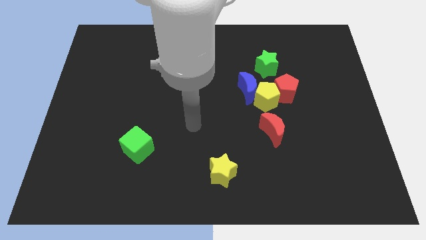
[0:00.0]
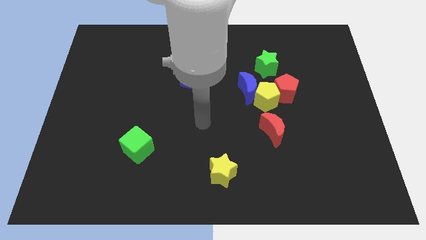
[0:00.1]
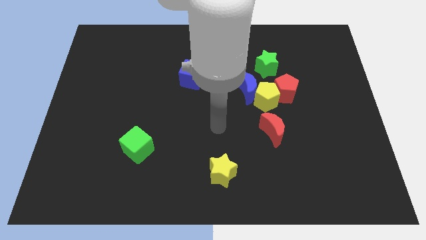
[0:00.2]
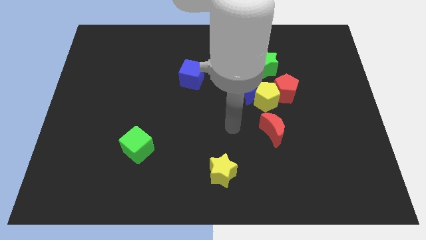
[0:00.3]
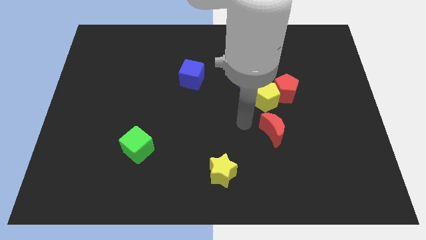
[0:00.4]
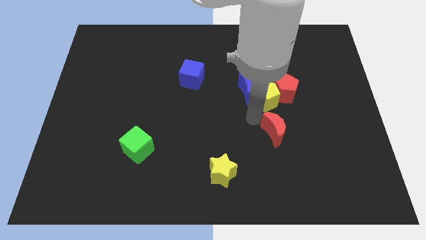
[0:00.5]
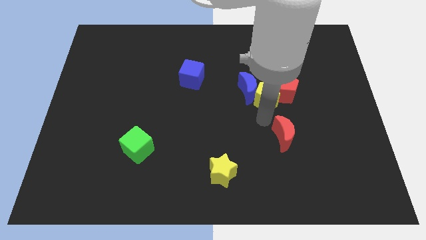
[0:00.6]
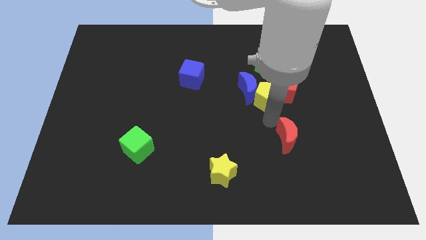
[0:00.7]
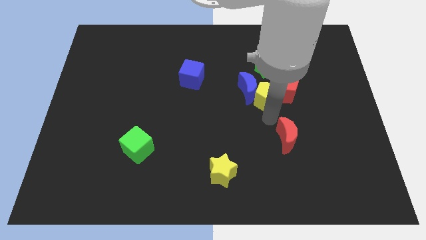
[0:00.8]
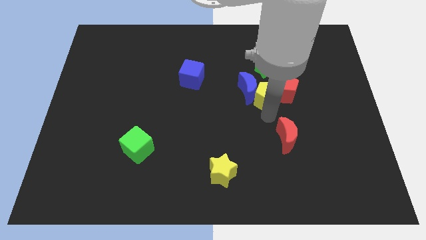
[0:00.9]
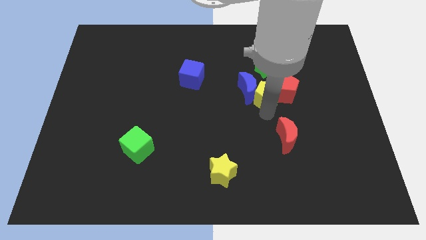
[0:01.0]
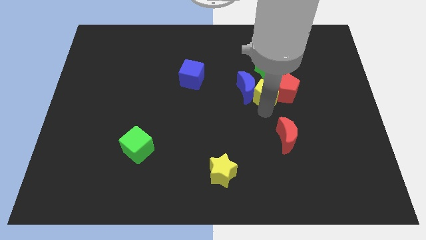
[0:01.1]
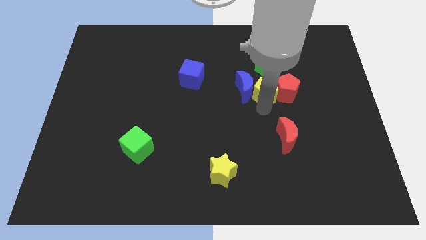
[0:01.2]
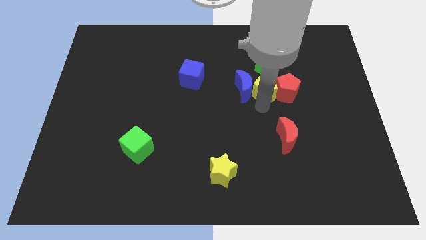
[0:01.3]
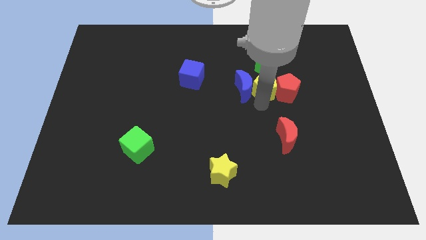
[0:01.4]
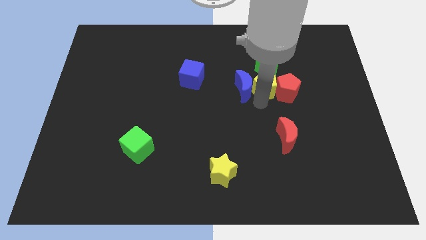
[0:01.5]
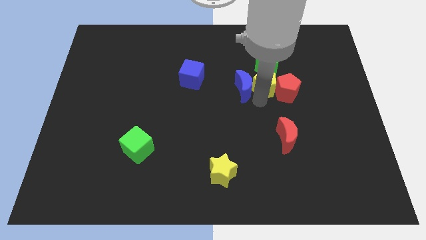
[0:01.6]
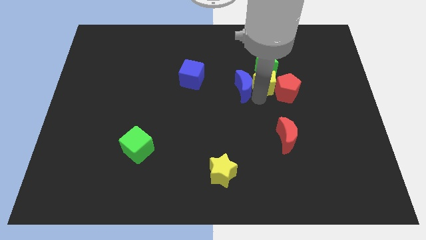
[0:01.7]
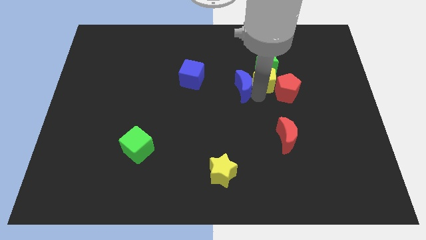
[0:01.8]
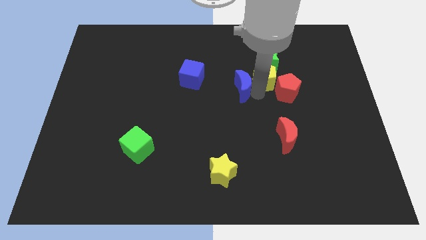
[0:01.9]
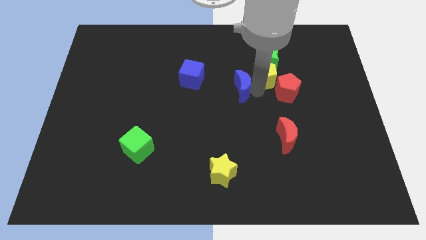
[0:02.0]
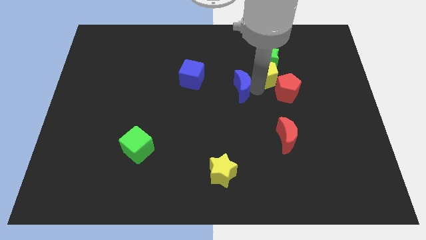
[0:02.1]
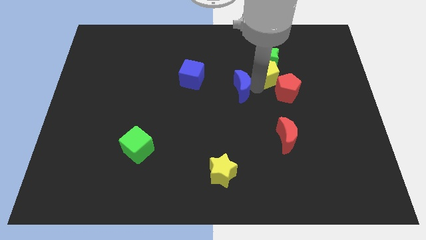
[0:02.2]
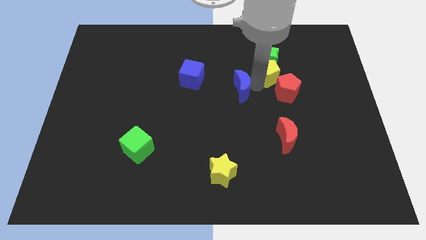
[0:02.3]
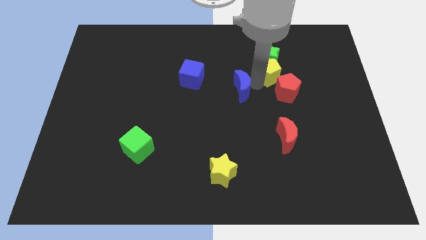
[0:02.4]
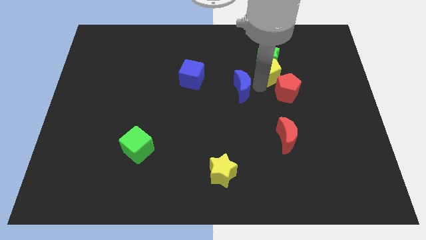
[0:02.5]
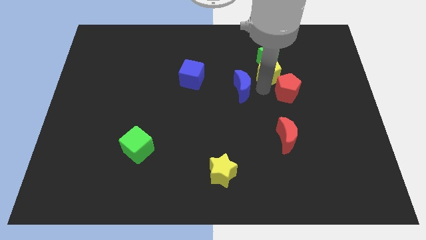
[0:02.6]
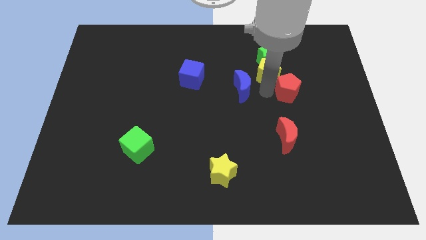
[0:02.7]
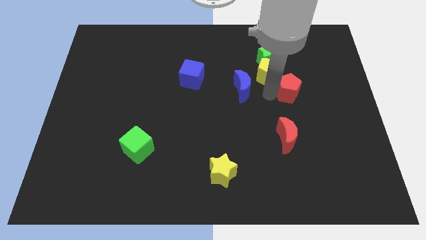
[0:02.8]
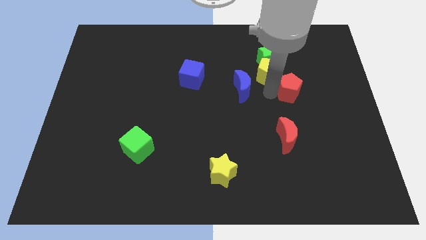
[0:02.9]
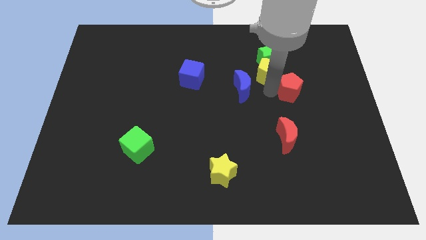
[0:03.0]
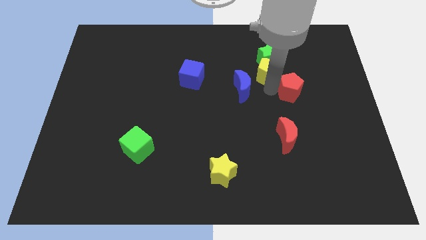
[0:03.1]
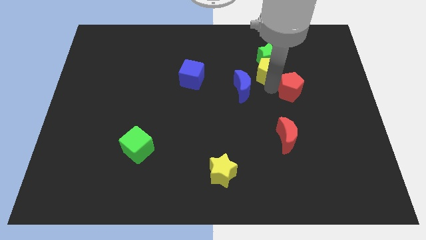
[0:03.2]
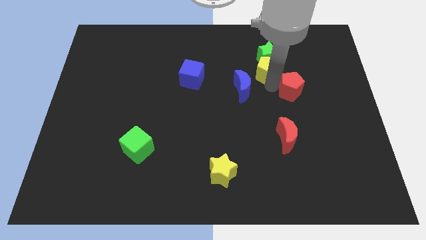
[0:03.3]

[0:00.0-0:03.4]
separate the yellow pentagon from the blue moon, red pentagon, and red moon

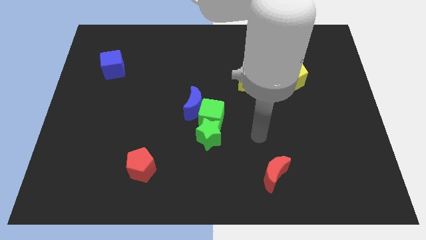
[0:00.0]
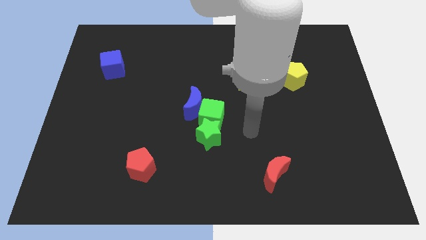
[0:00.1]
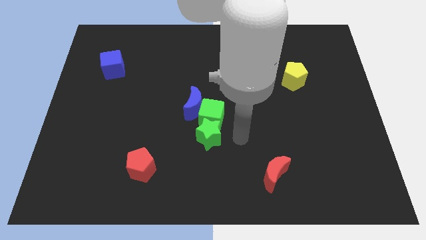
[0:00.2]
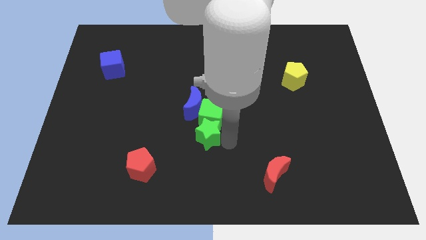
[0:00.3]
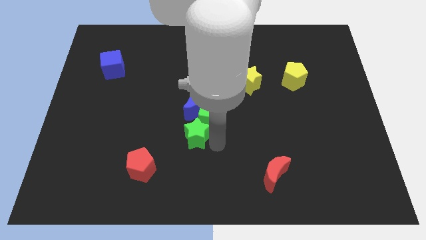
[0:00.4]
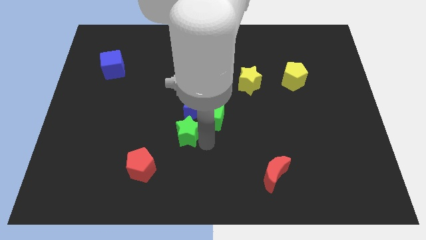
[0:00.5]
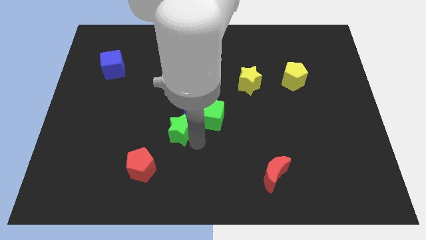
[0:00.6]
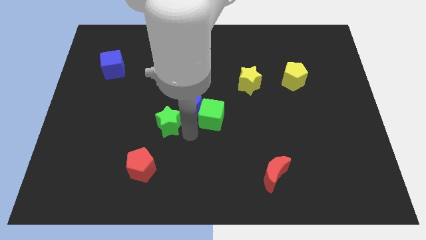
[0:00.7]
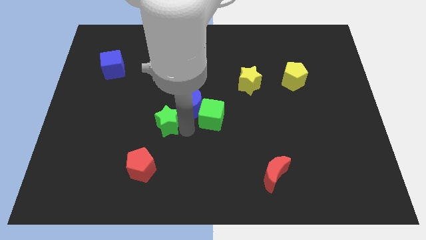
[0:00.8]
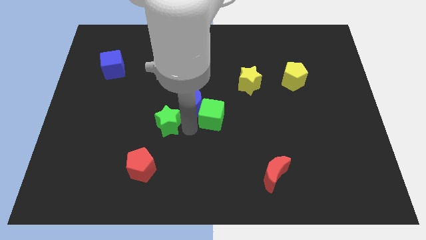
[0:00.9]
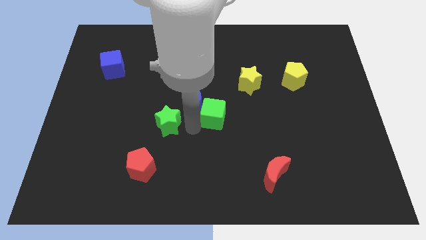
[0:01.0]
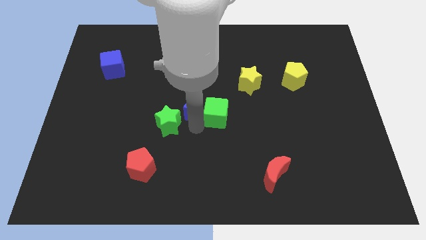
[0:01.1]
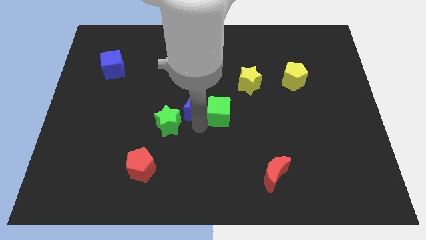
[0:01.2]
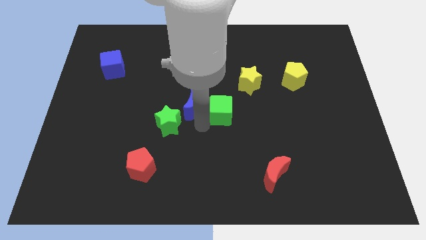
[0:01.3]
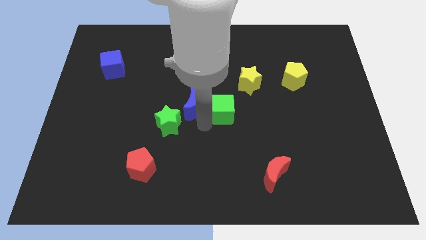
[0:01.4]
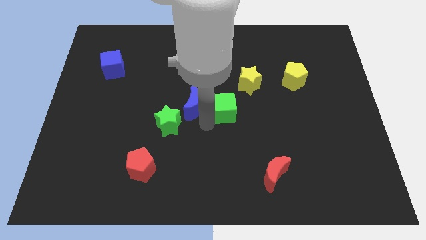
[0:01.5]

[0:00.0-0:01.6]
separate the green cube from the blue moon and green star

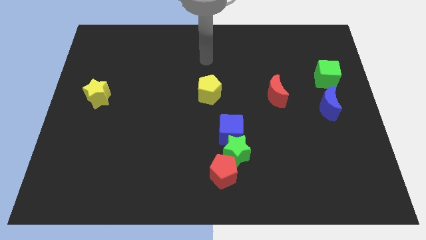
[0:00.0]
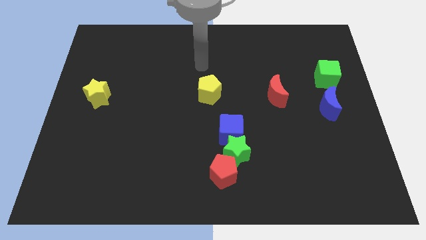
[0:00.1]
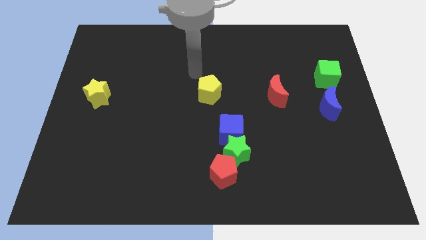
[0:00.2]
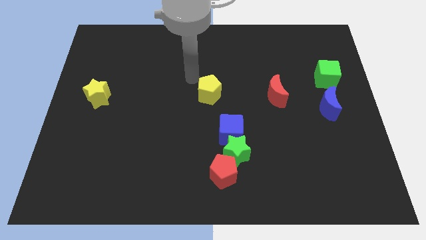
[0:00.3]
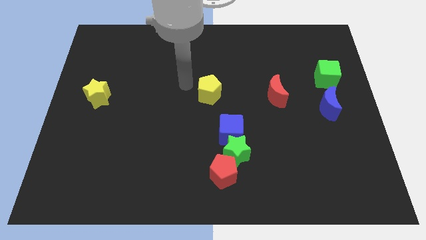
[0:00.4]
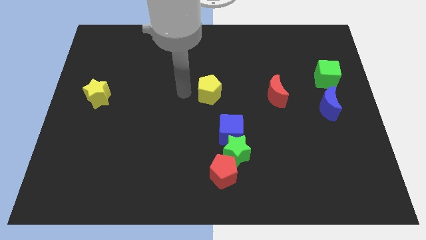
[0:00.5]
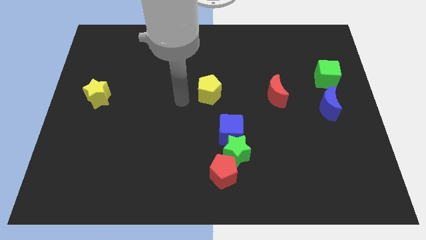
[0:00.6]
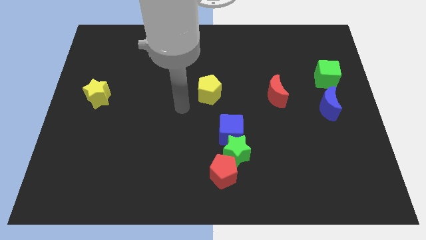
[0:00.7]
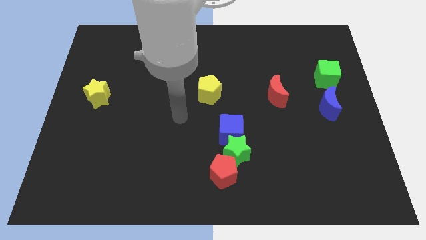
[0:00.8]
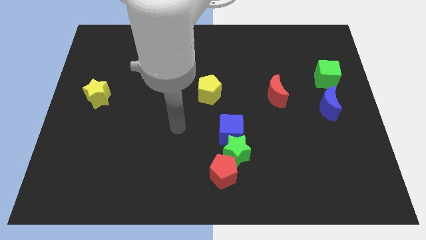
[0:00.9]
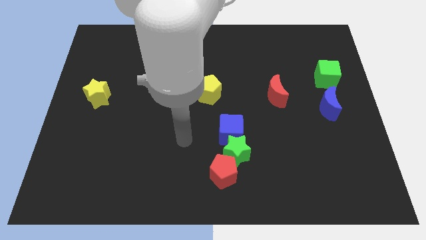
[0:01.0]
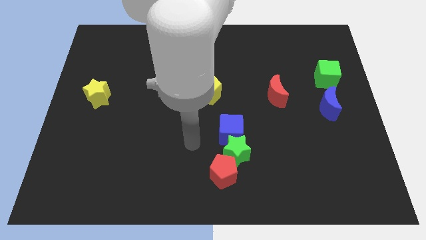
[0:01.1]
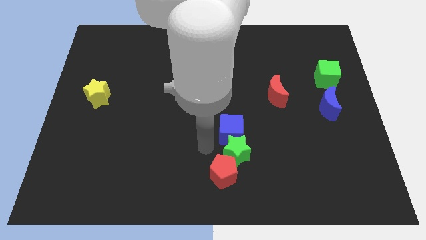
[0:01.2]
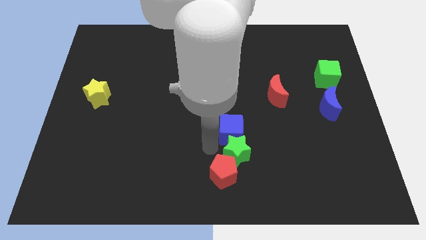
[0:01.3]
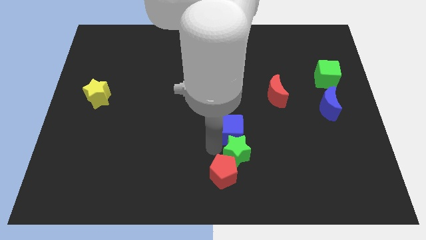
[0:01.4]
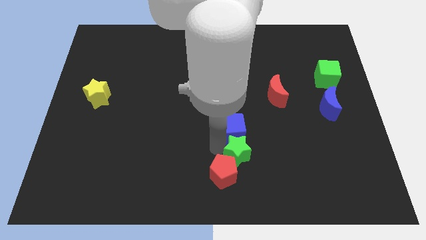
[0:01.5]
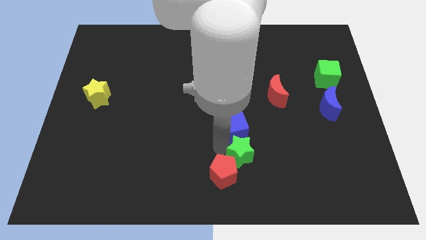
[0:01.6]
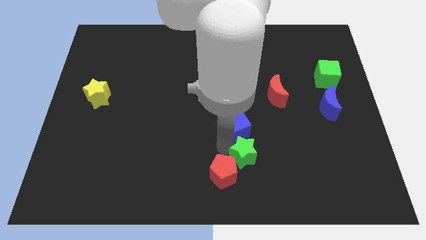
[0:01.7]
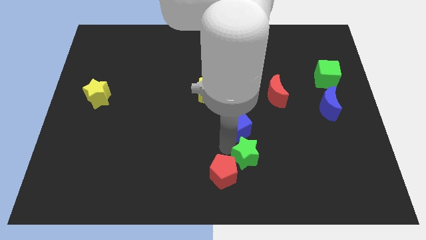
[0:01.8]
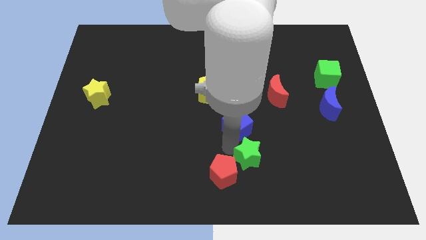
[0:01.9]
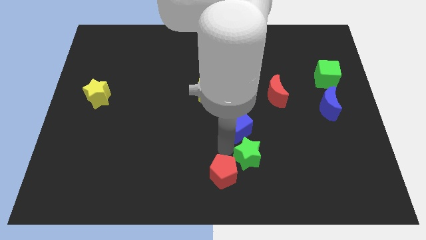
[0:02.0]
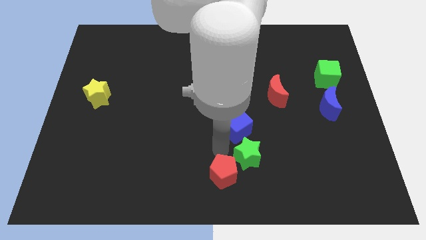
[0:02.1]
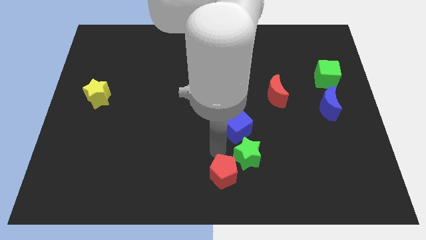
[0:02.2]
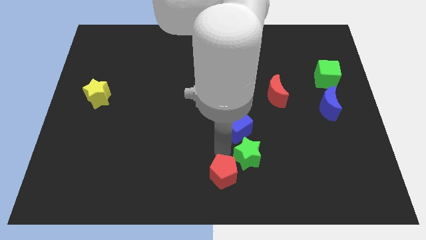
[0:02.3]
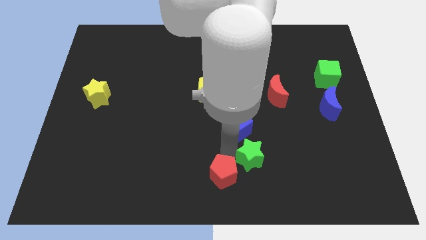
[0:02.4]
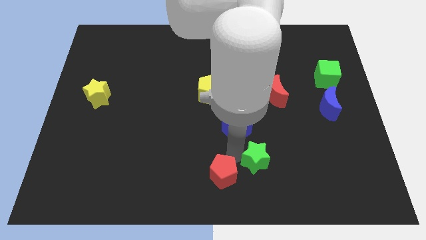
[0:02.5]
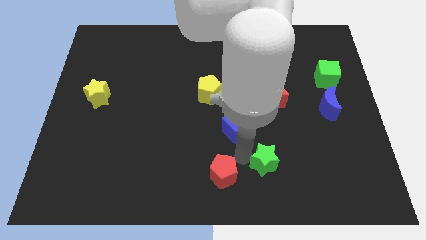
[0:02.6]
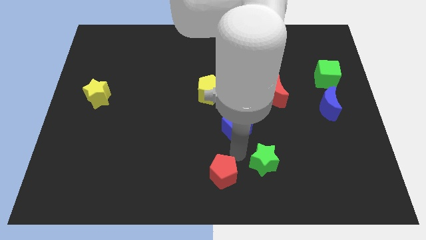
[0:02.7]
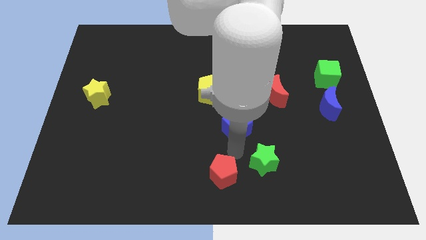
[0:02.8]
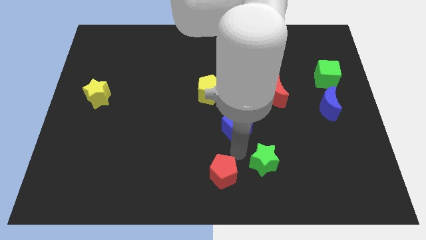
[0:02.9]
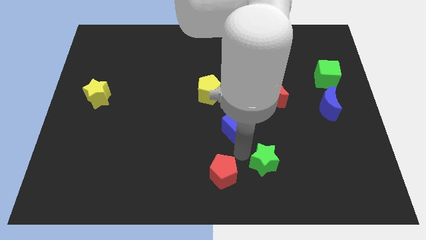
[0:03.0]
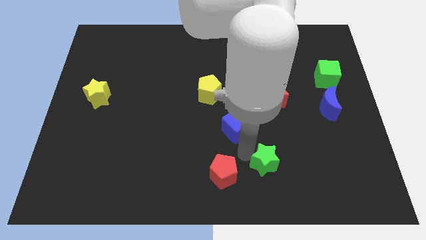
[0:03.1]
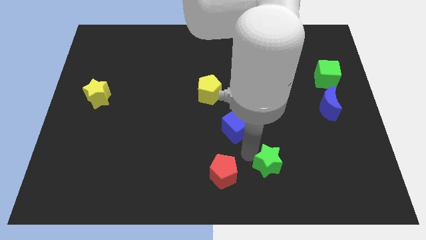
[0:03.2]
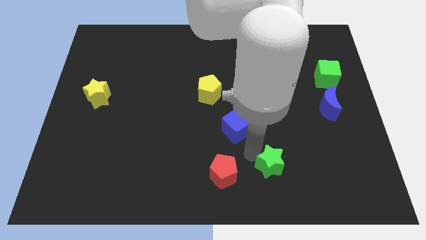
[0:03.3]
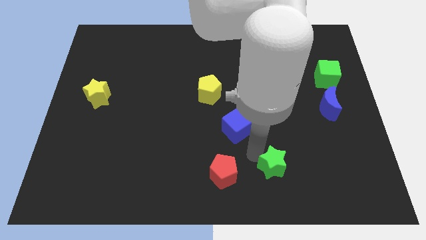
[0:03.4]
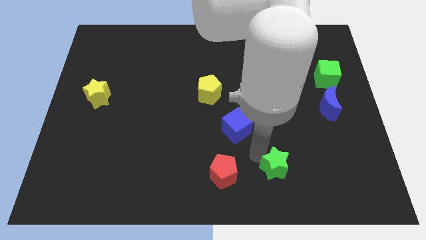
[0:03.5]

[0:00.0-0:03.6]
pull the green star apart from the red pentagon and blue cube

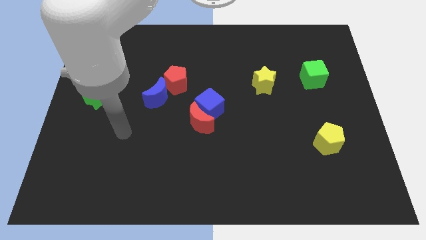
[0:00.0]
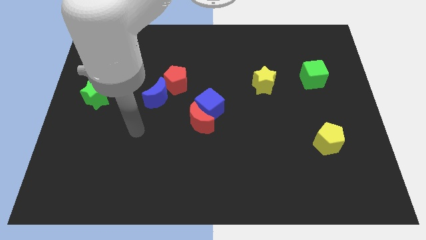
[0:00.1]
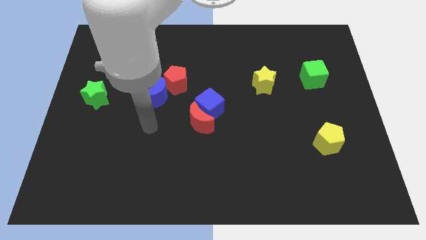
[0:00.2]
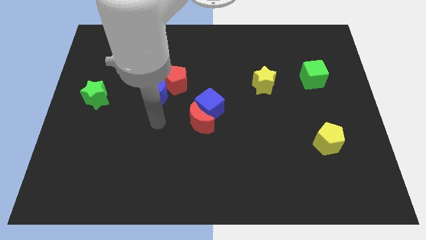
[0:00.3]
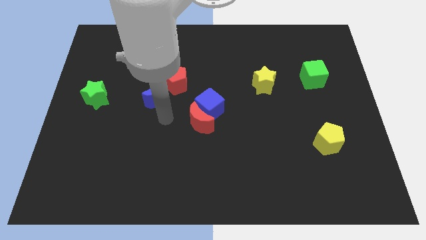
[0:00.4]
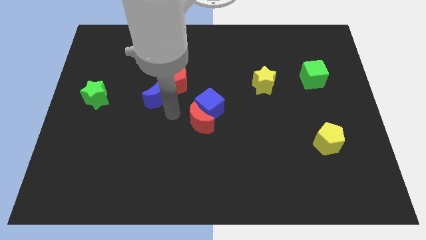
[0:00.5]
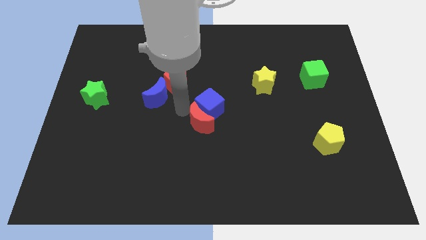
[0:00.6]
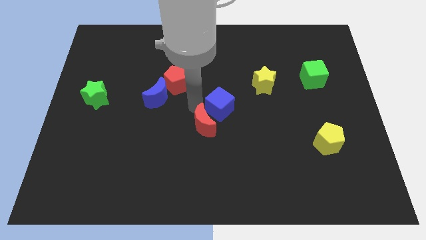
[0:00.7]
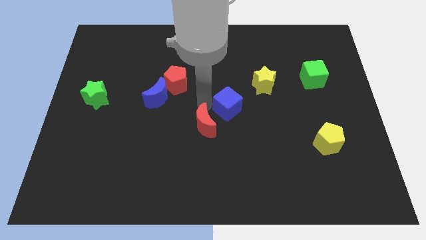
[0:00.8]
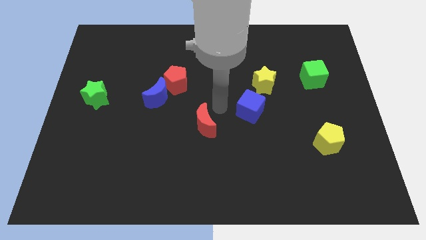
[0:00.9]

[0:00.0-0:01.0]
move the red moon away from the blue cube
